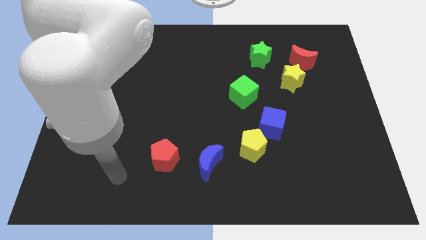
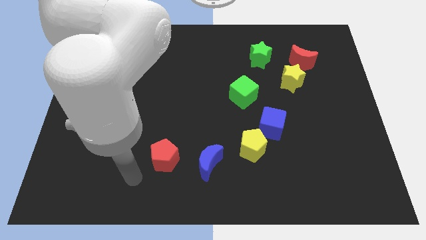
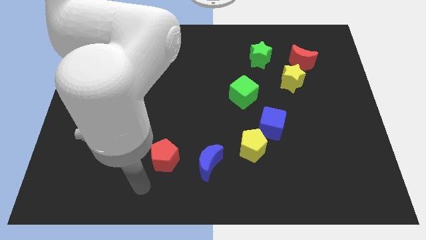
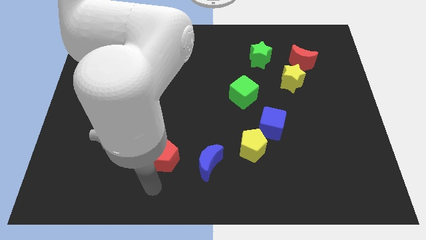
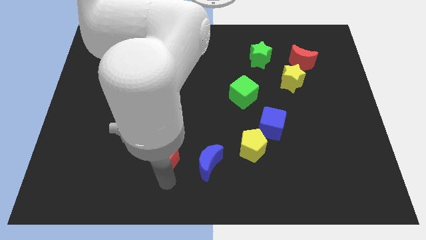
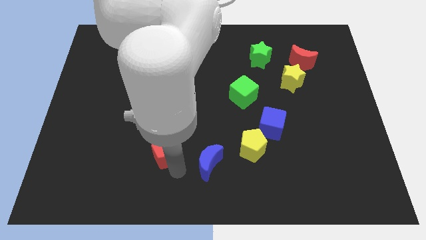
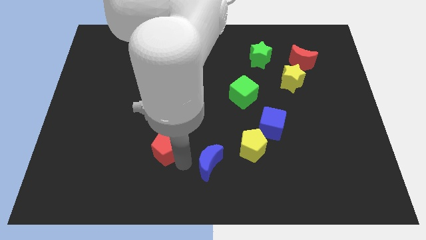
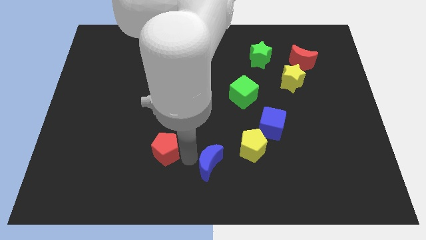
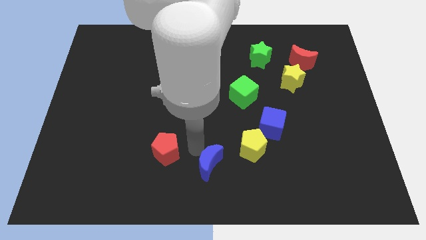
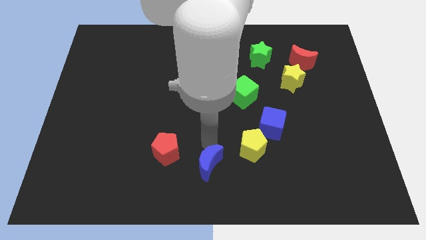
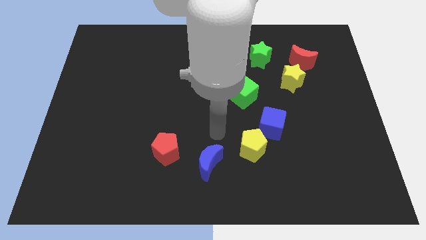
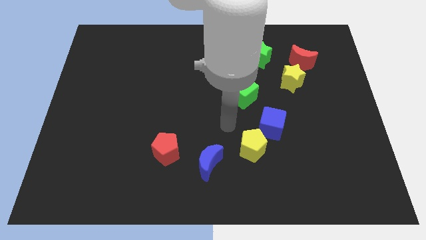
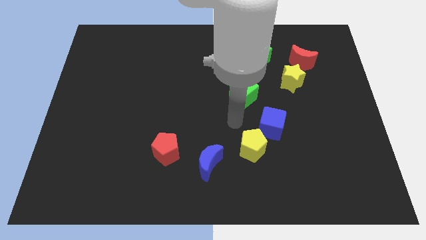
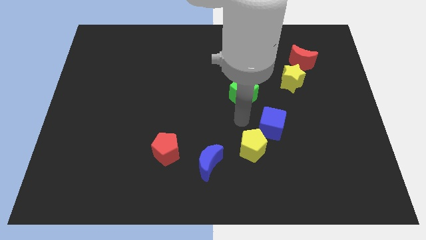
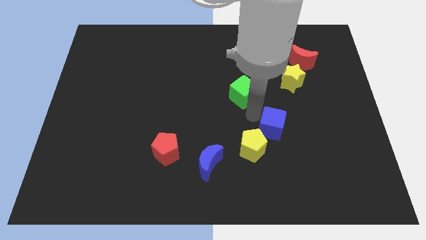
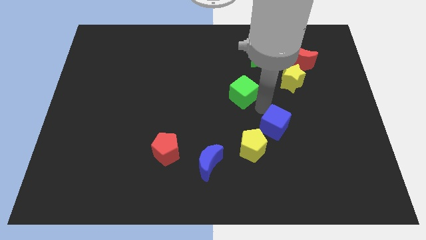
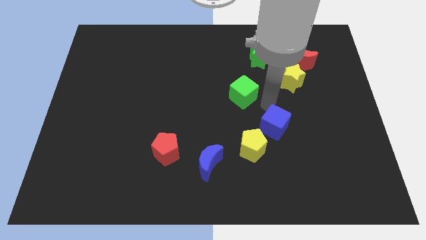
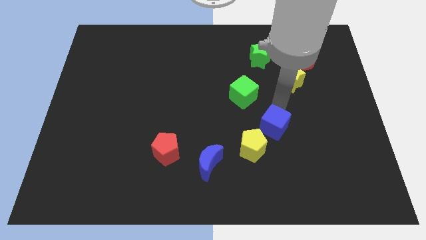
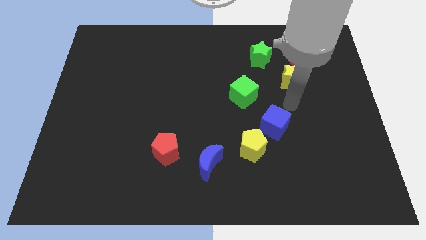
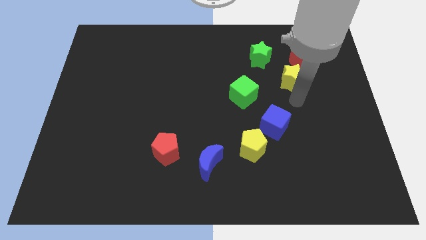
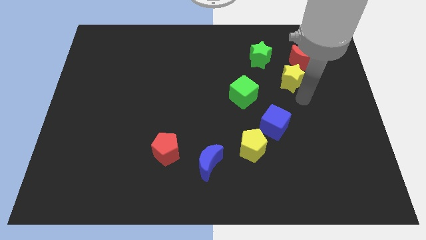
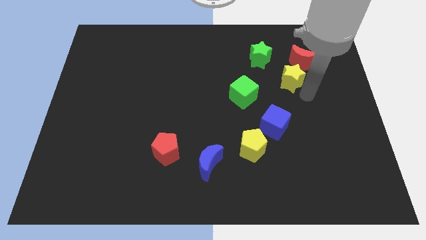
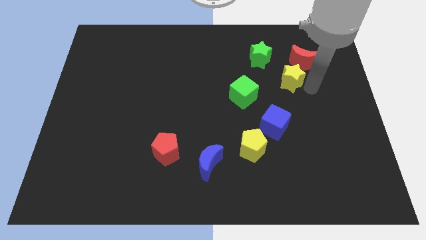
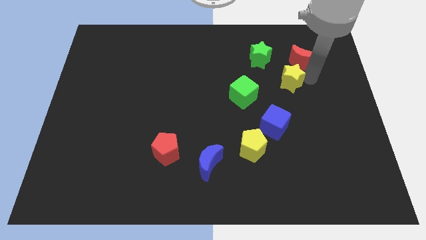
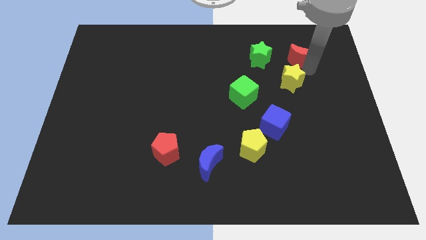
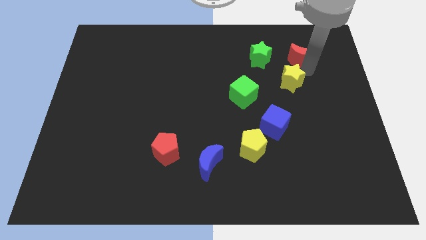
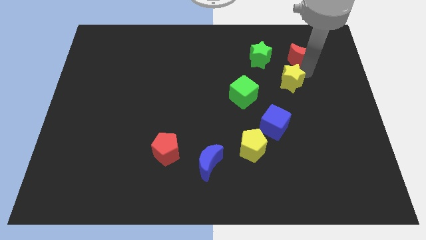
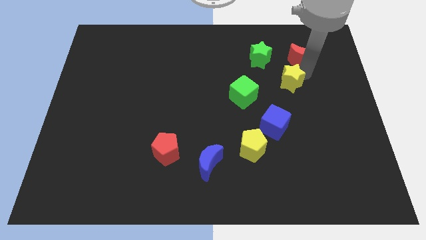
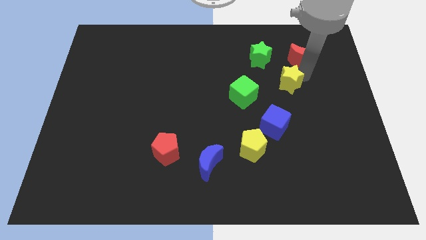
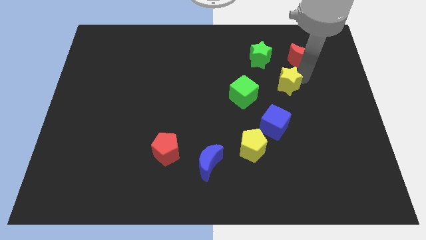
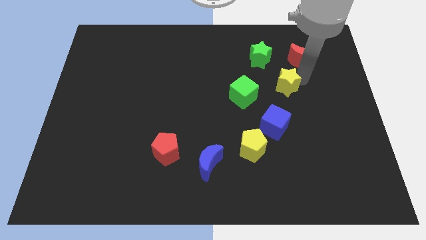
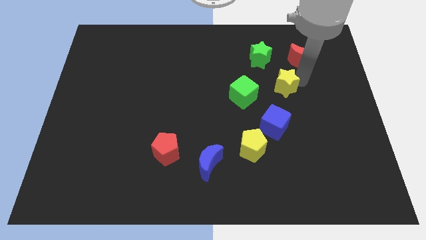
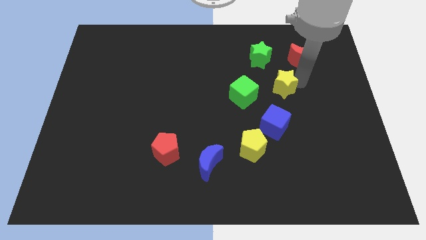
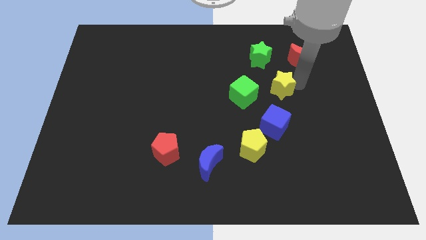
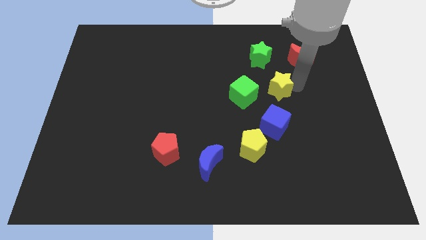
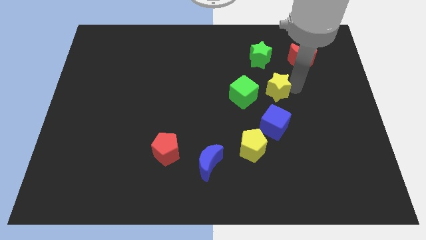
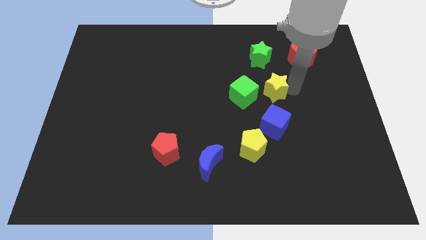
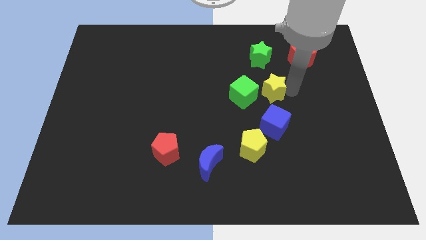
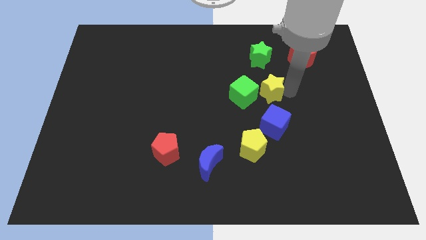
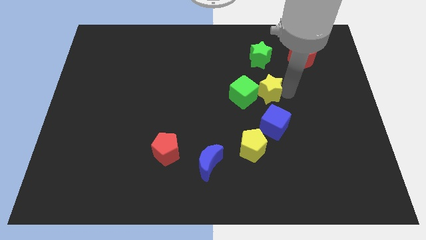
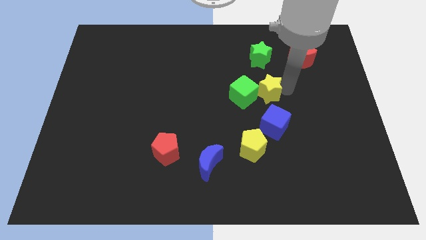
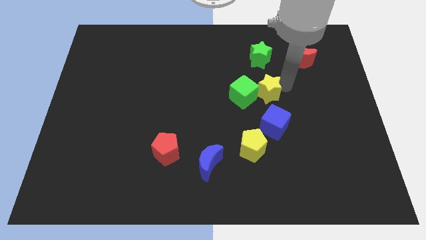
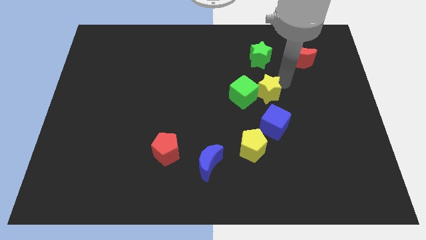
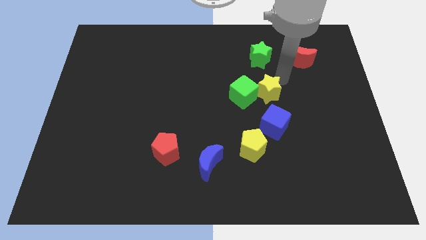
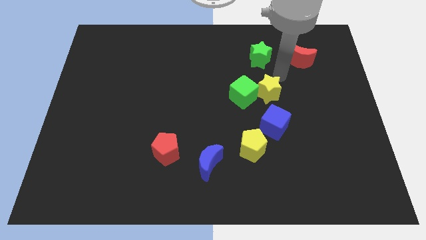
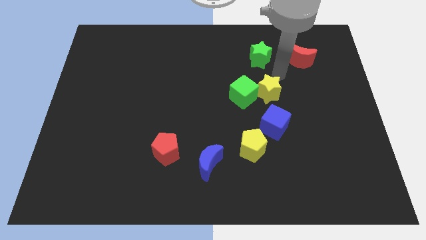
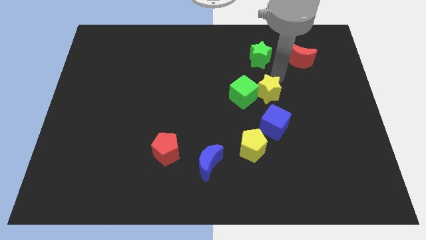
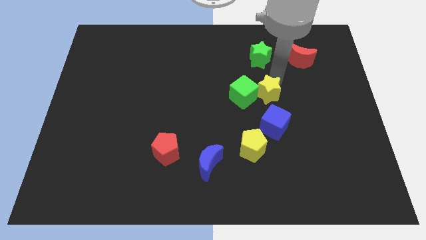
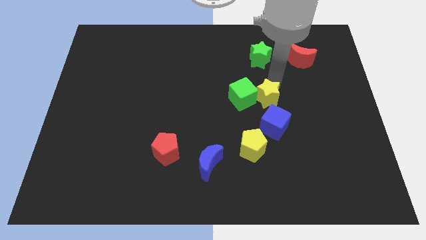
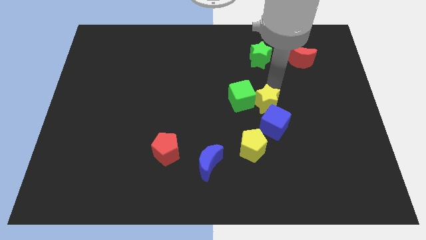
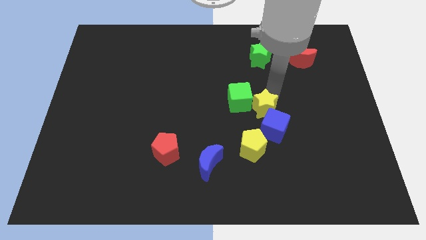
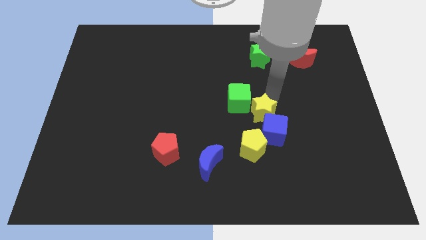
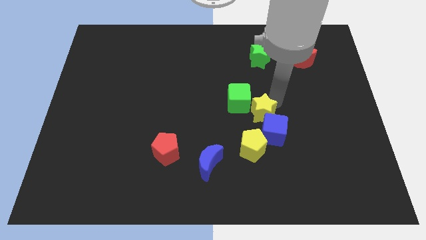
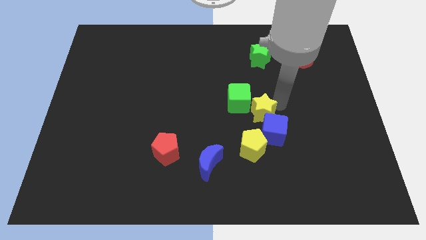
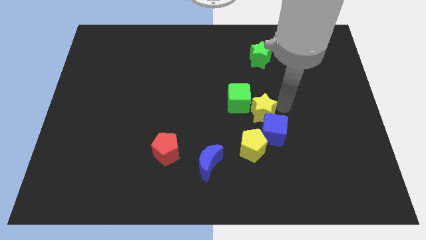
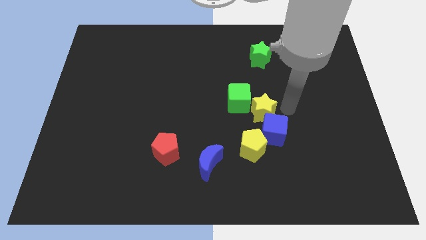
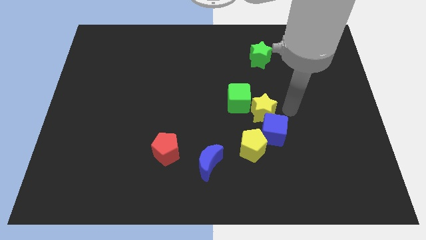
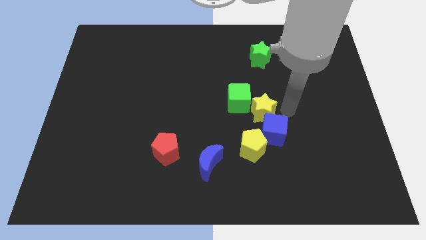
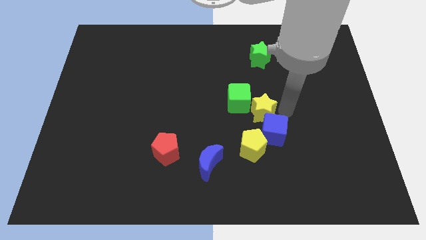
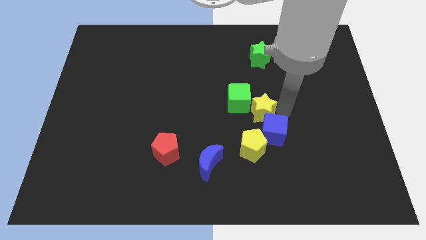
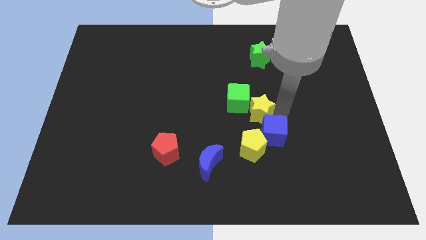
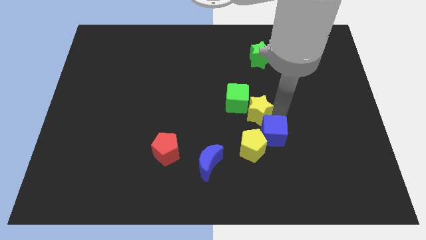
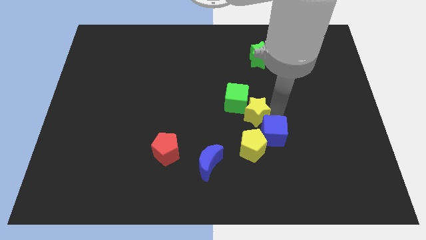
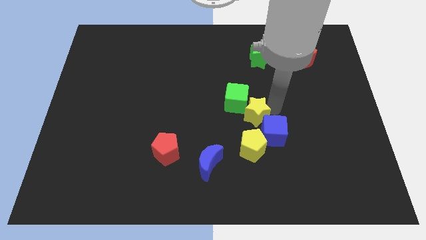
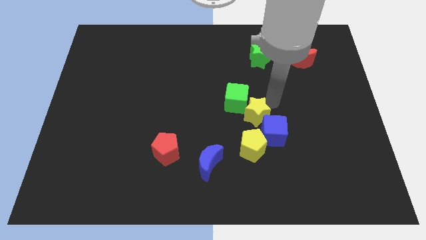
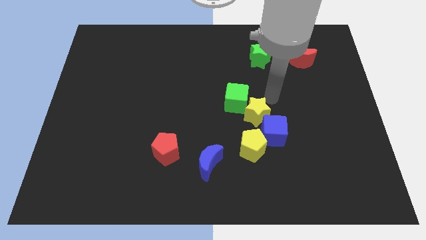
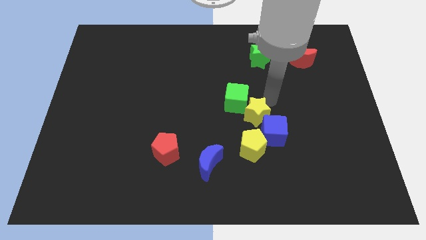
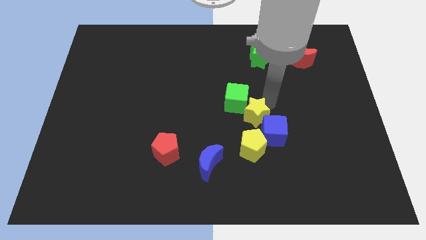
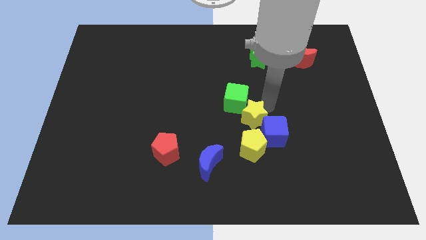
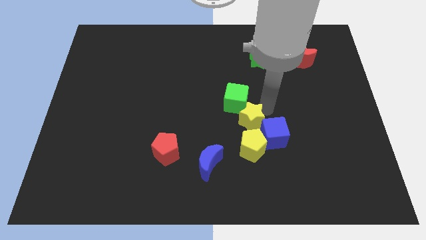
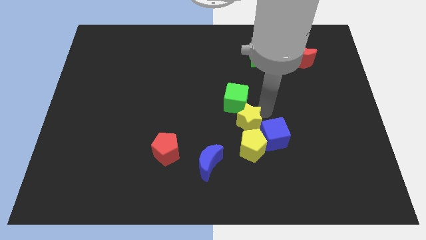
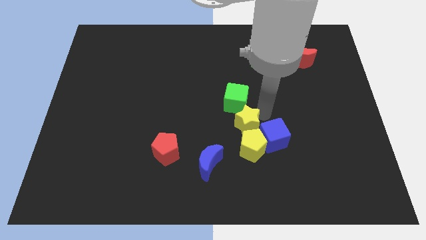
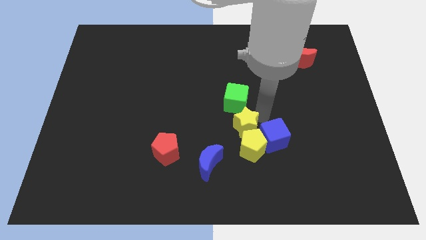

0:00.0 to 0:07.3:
put the yellow star to the top right of the blue moon
